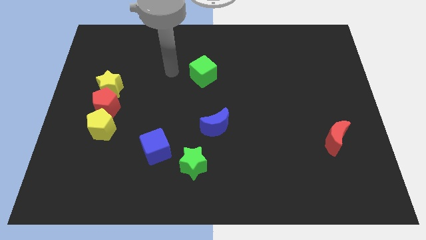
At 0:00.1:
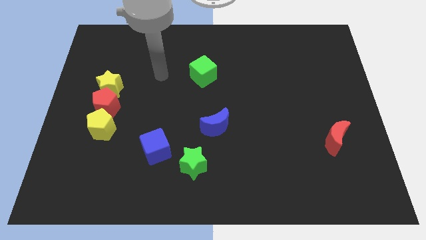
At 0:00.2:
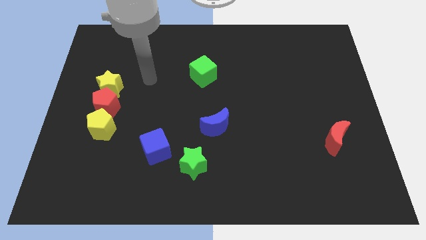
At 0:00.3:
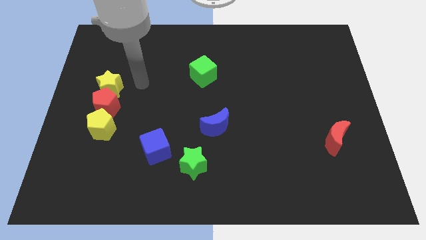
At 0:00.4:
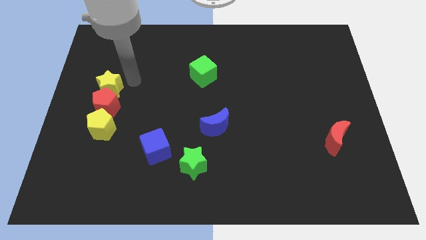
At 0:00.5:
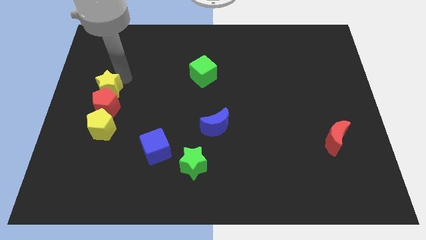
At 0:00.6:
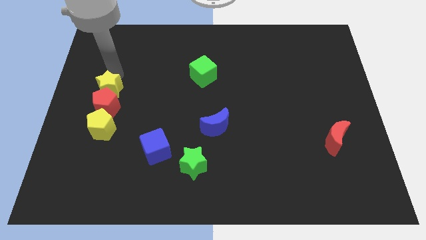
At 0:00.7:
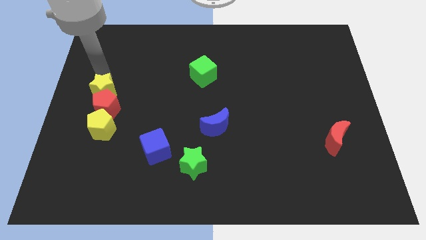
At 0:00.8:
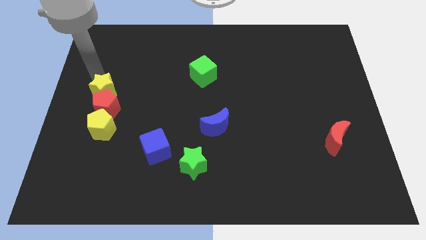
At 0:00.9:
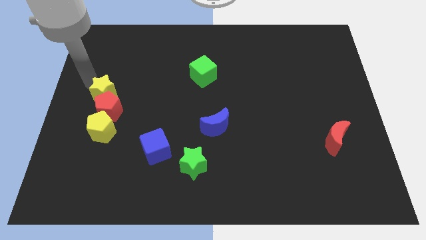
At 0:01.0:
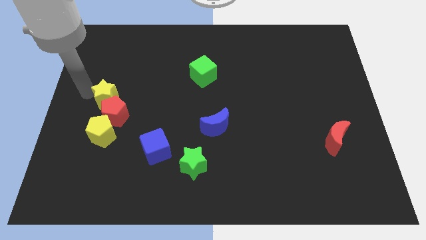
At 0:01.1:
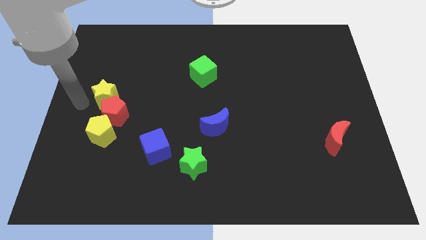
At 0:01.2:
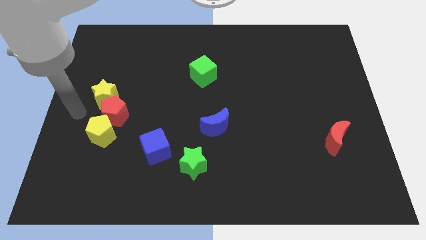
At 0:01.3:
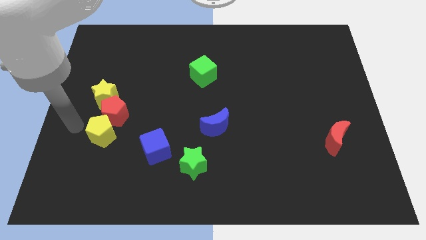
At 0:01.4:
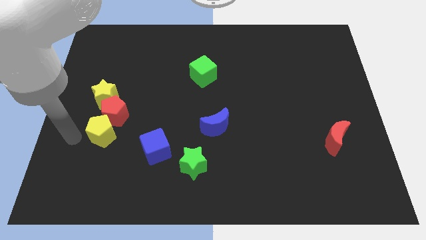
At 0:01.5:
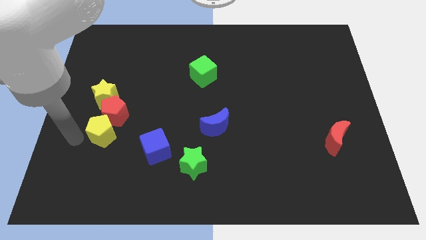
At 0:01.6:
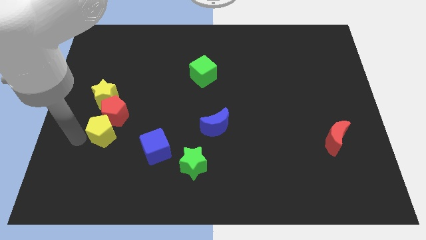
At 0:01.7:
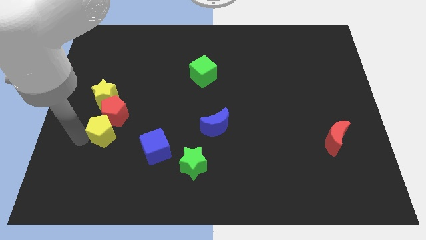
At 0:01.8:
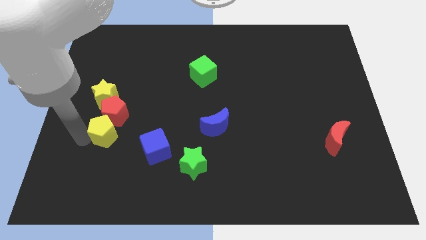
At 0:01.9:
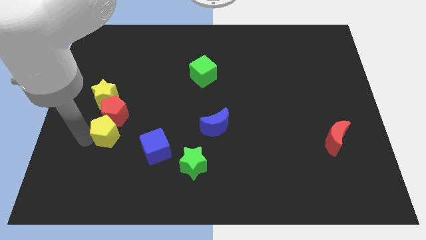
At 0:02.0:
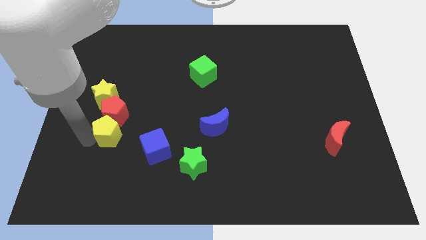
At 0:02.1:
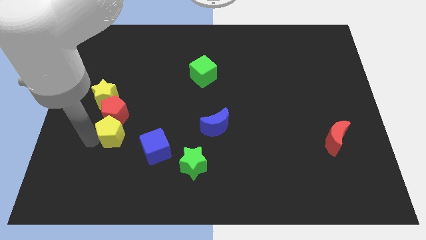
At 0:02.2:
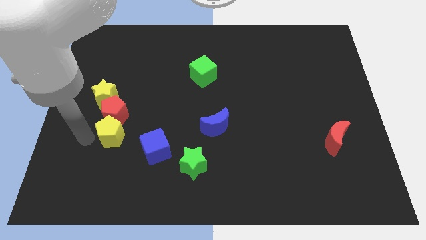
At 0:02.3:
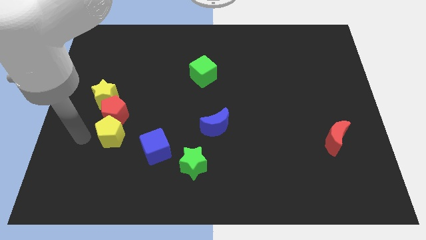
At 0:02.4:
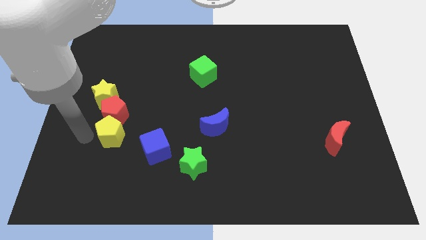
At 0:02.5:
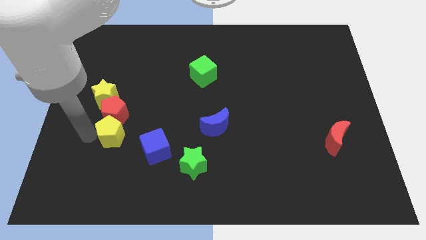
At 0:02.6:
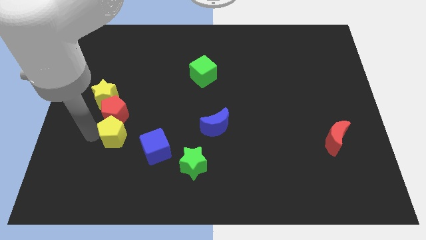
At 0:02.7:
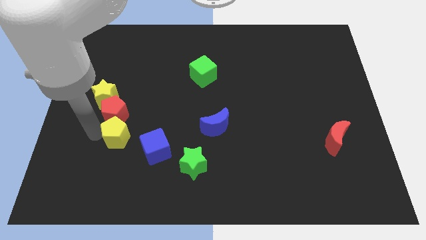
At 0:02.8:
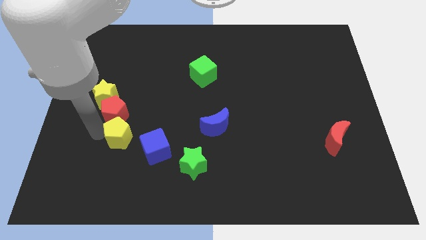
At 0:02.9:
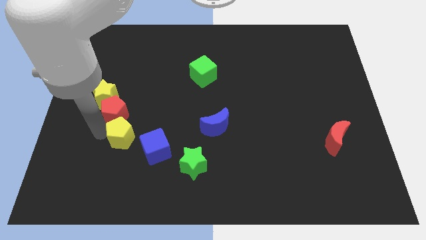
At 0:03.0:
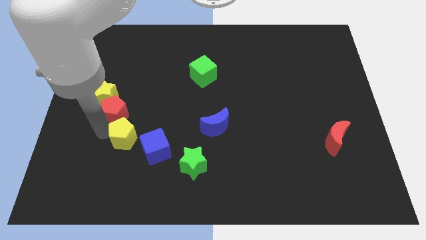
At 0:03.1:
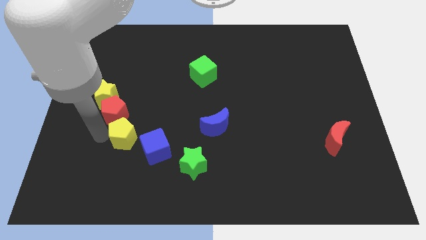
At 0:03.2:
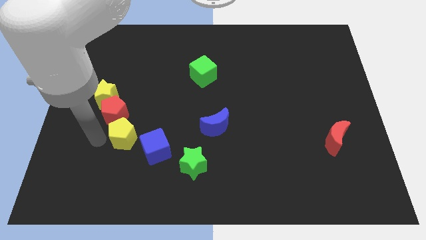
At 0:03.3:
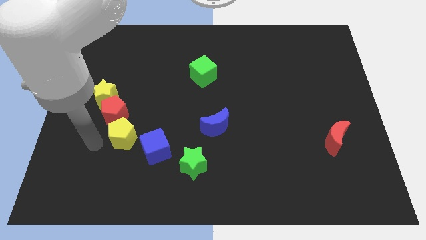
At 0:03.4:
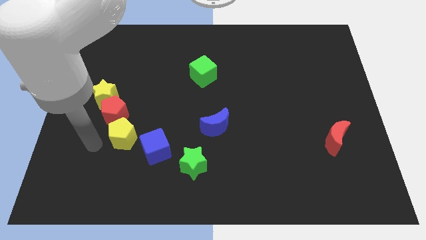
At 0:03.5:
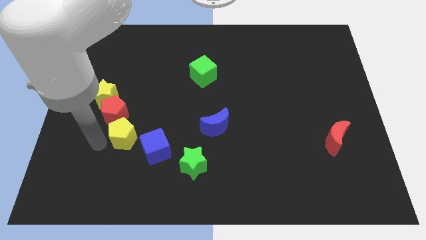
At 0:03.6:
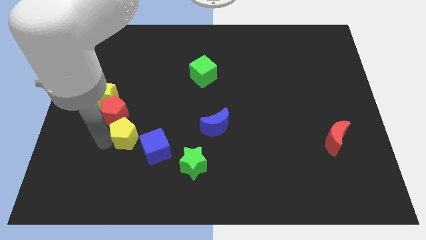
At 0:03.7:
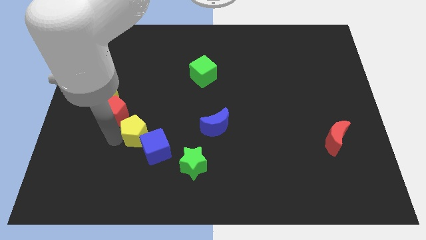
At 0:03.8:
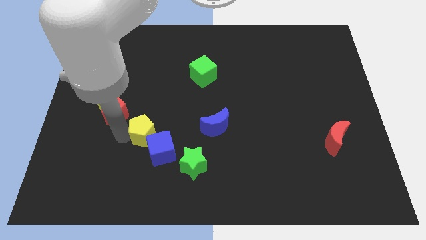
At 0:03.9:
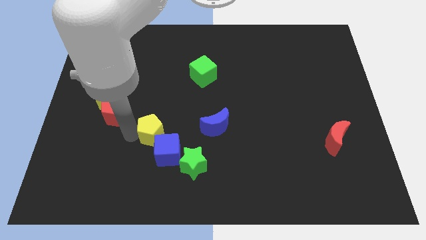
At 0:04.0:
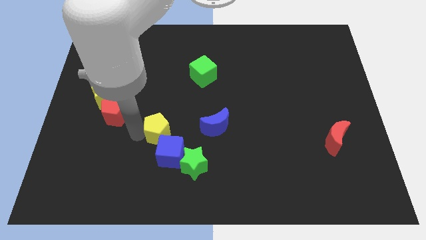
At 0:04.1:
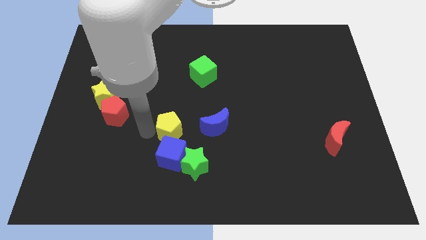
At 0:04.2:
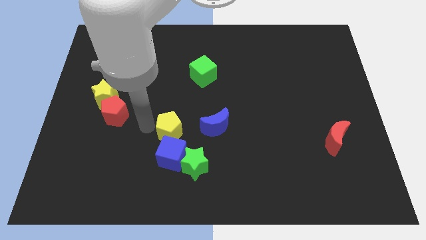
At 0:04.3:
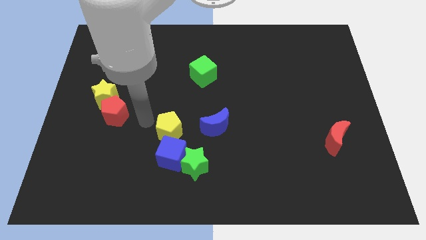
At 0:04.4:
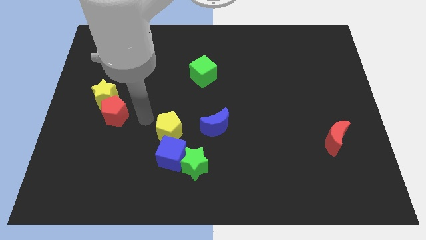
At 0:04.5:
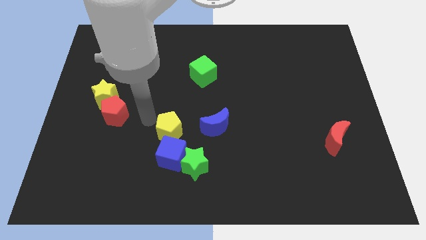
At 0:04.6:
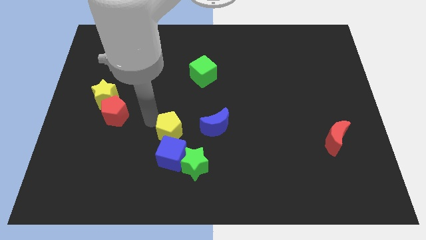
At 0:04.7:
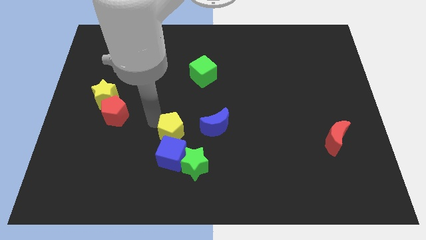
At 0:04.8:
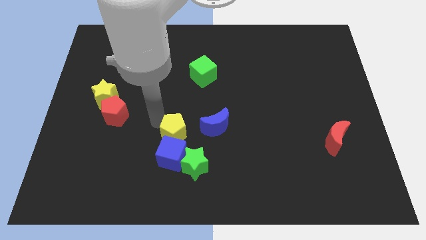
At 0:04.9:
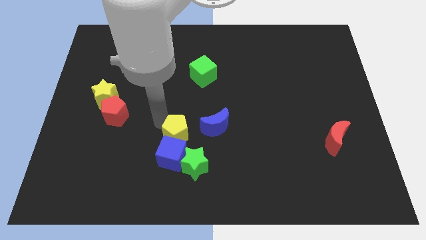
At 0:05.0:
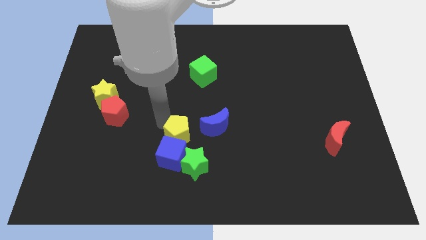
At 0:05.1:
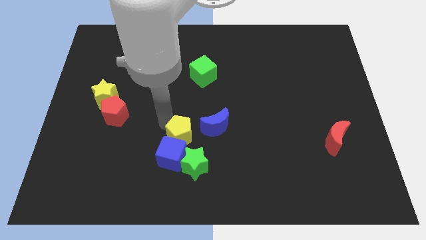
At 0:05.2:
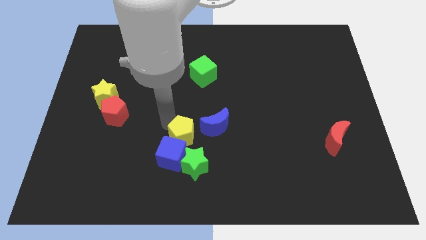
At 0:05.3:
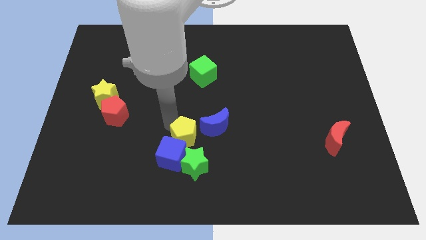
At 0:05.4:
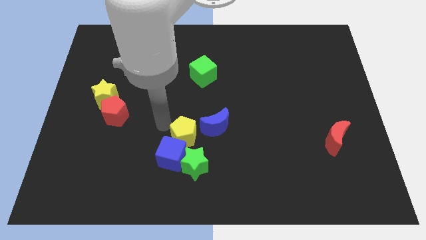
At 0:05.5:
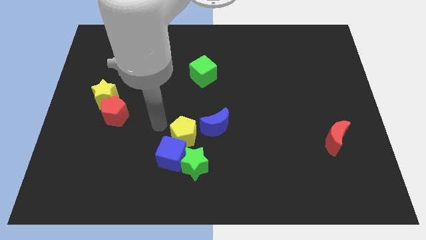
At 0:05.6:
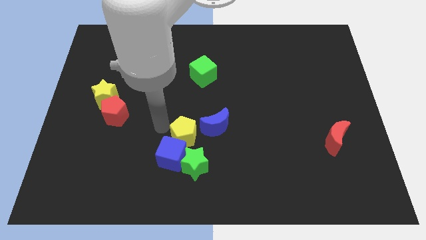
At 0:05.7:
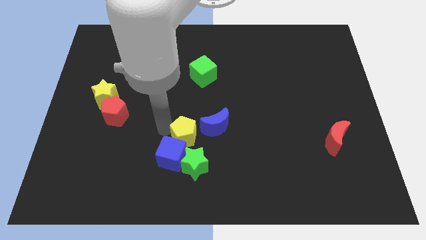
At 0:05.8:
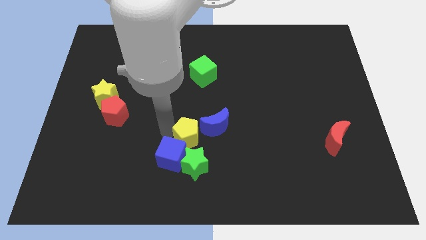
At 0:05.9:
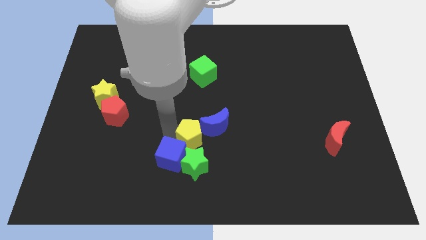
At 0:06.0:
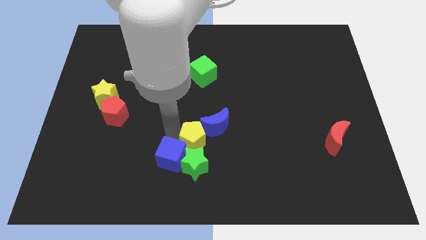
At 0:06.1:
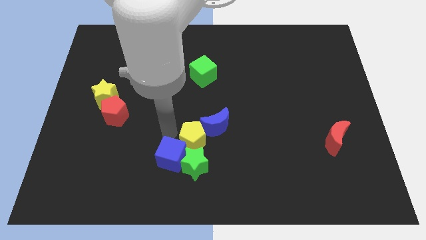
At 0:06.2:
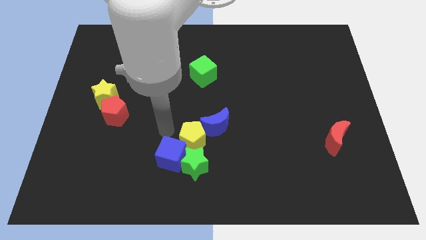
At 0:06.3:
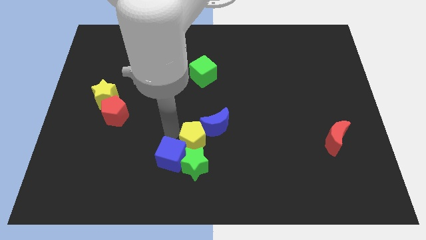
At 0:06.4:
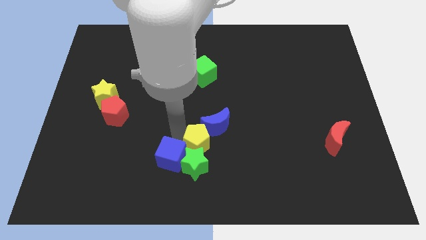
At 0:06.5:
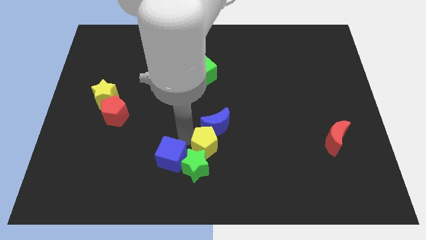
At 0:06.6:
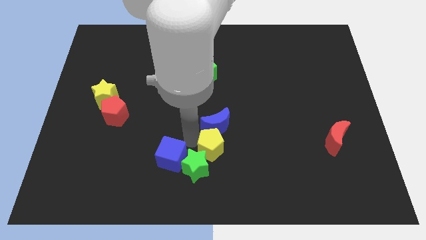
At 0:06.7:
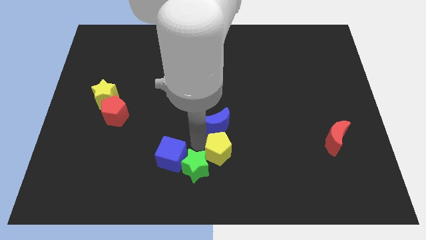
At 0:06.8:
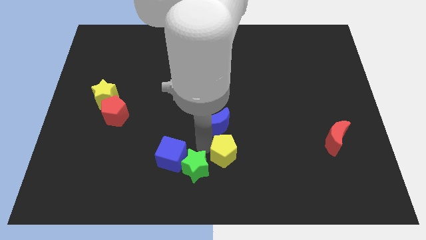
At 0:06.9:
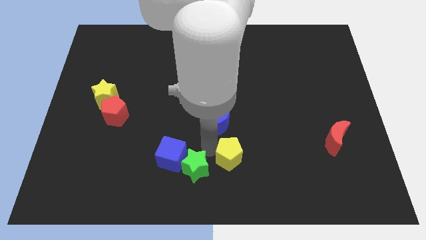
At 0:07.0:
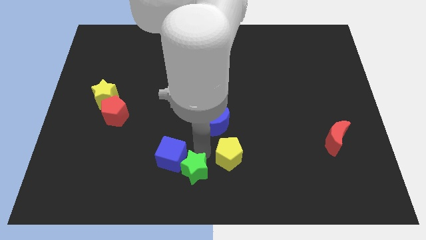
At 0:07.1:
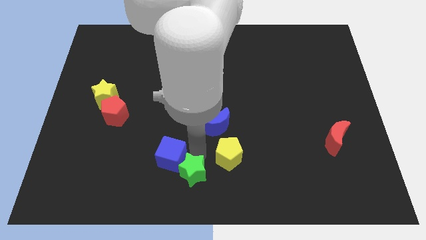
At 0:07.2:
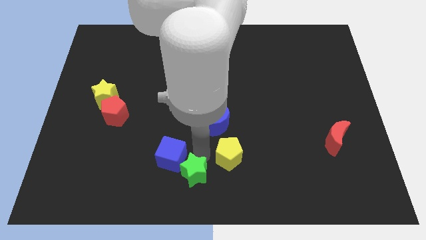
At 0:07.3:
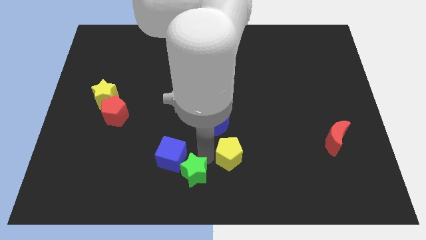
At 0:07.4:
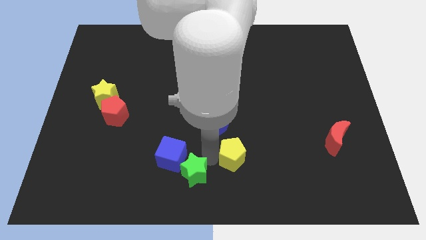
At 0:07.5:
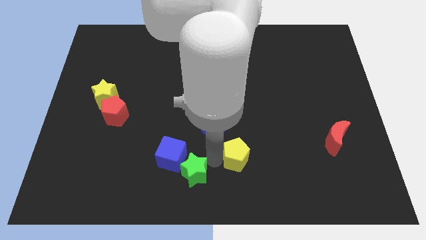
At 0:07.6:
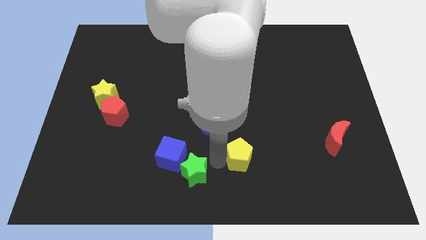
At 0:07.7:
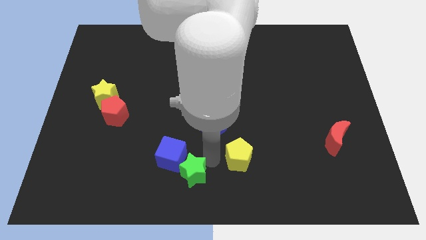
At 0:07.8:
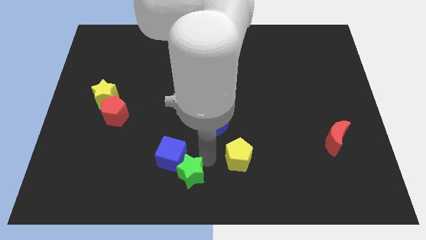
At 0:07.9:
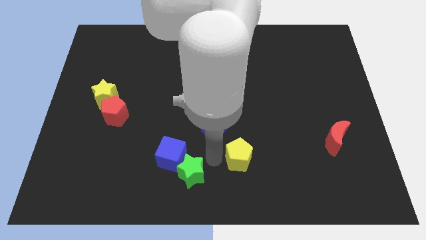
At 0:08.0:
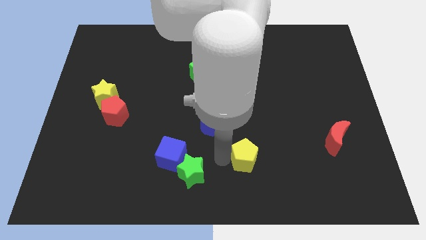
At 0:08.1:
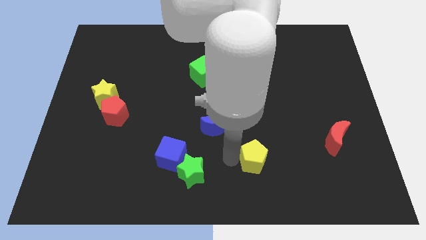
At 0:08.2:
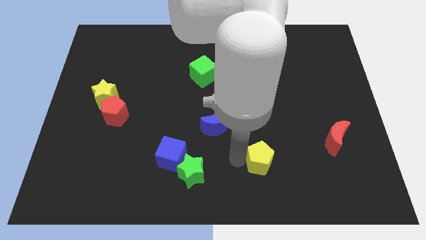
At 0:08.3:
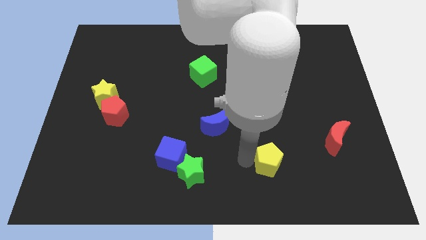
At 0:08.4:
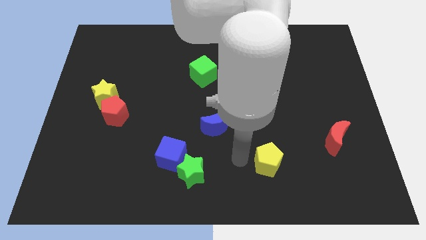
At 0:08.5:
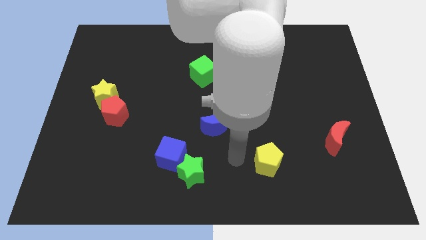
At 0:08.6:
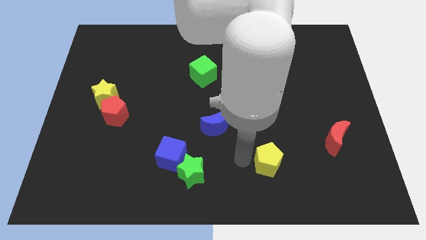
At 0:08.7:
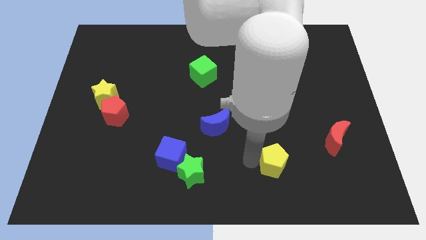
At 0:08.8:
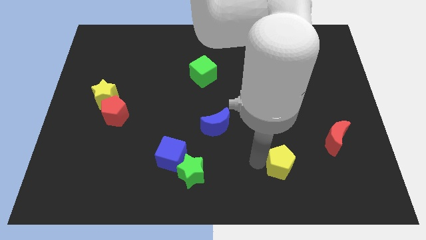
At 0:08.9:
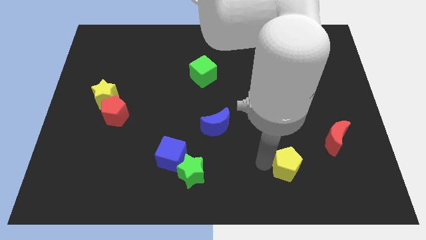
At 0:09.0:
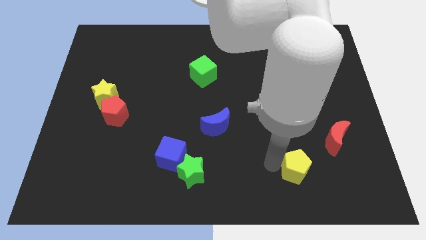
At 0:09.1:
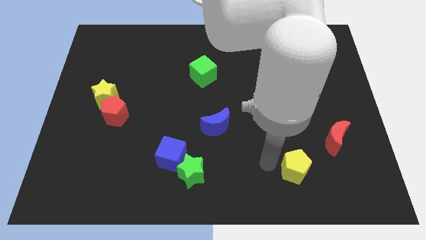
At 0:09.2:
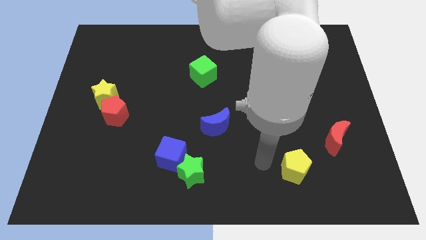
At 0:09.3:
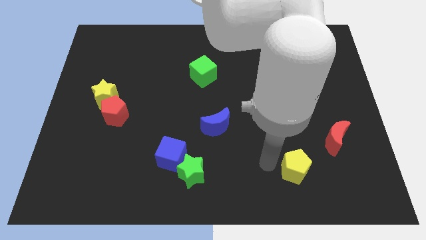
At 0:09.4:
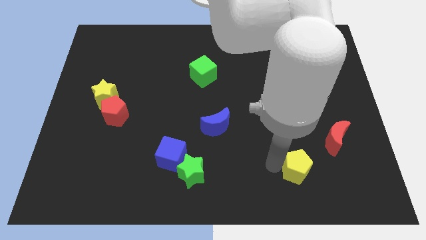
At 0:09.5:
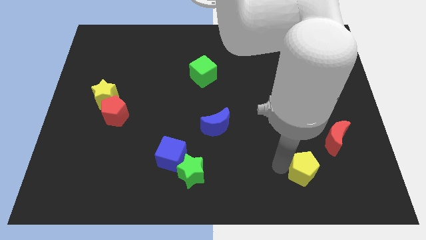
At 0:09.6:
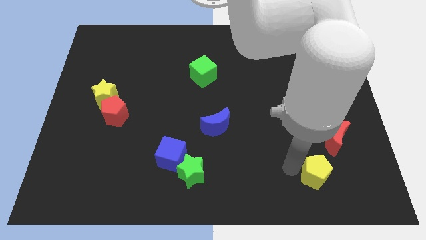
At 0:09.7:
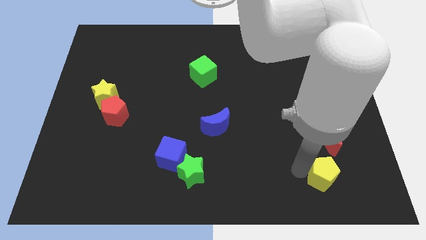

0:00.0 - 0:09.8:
push the yellow pentagon to the bottom side of the red moon
